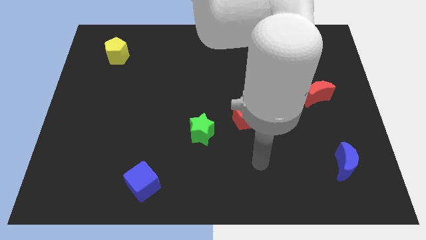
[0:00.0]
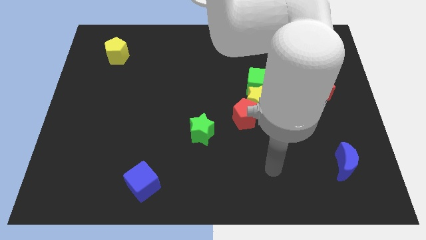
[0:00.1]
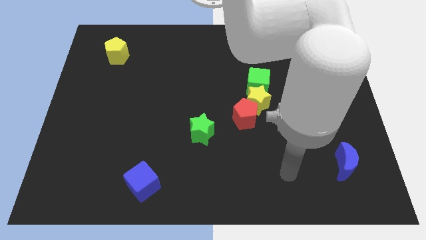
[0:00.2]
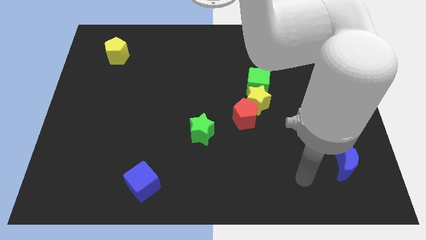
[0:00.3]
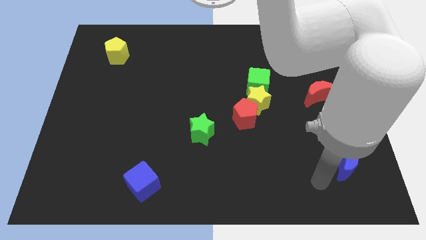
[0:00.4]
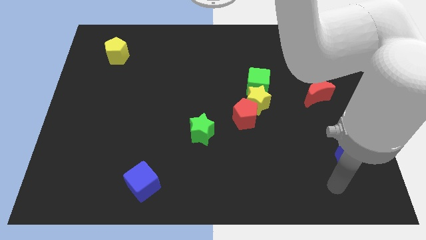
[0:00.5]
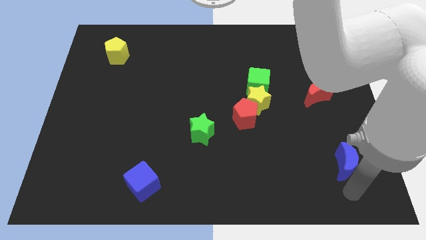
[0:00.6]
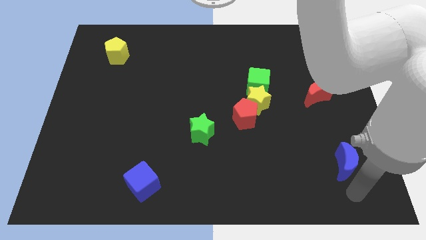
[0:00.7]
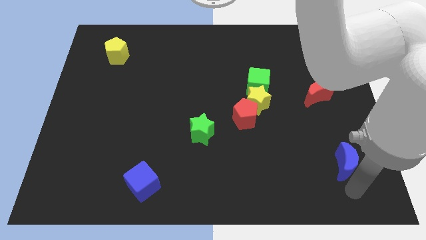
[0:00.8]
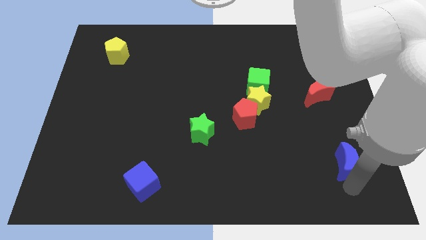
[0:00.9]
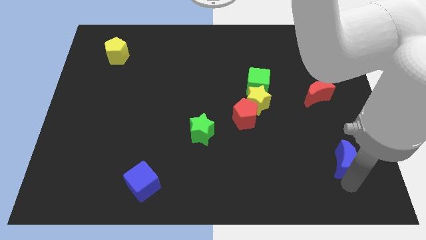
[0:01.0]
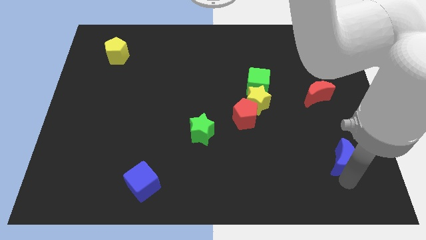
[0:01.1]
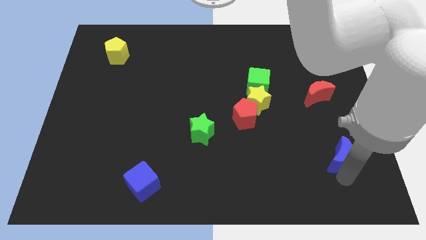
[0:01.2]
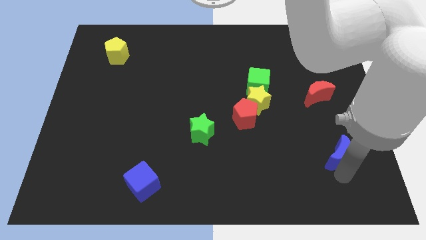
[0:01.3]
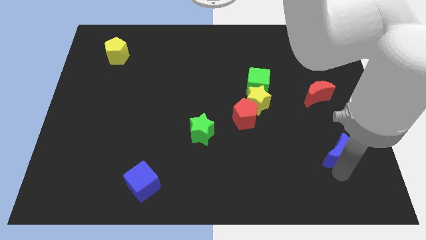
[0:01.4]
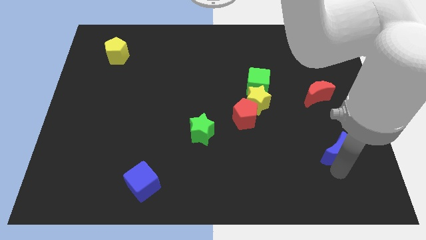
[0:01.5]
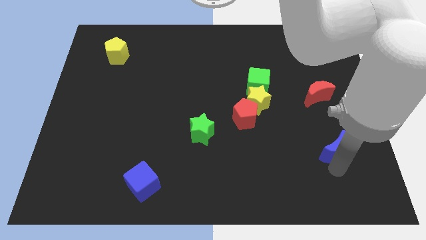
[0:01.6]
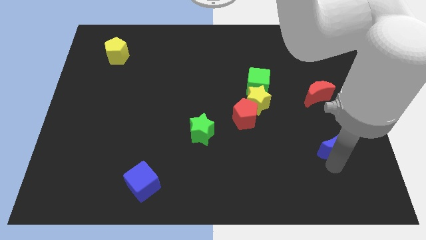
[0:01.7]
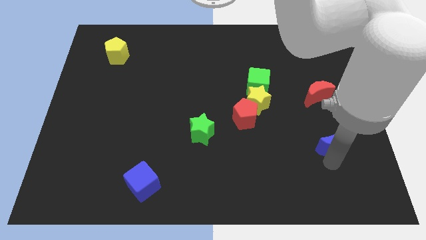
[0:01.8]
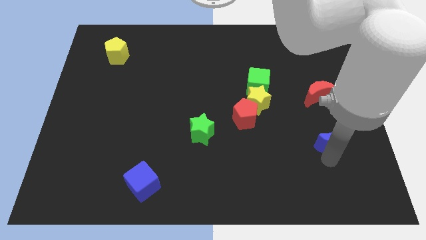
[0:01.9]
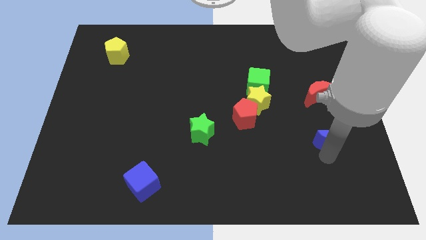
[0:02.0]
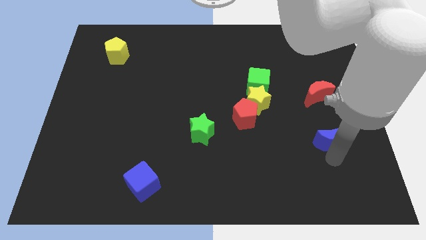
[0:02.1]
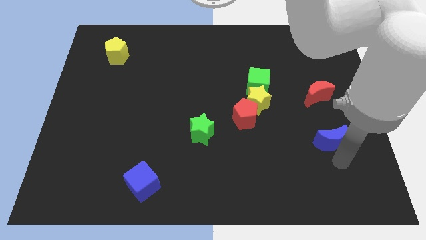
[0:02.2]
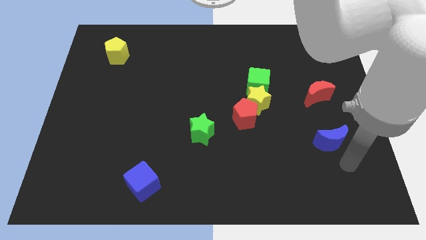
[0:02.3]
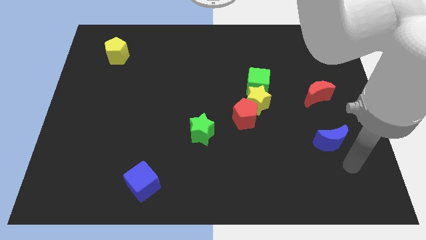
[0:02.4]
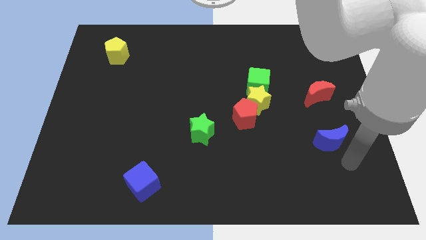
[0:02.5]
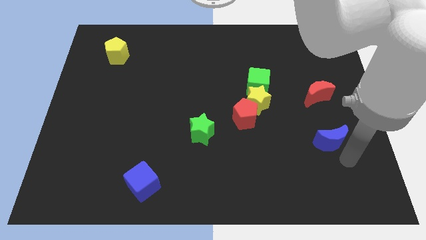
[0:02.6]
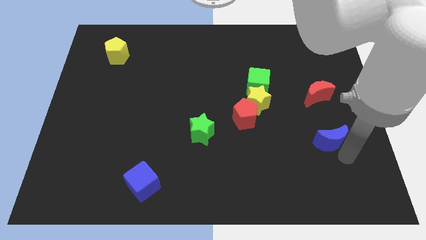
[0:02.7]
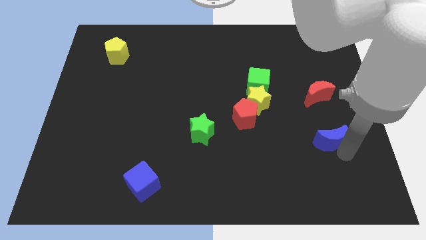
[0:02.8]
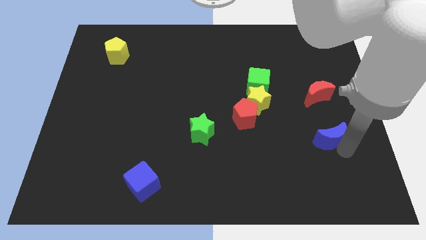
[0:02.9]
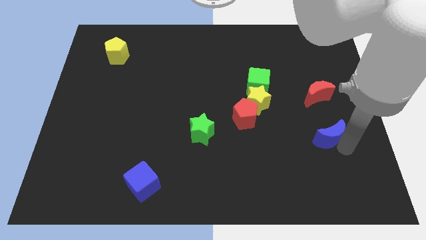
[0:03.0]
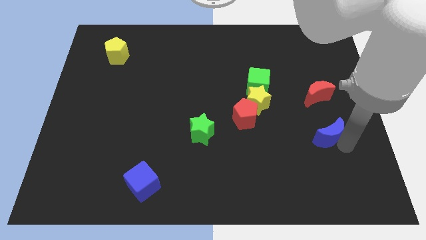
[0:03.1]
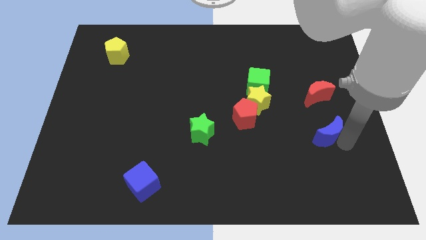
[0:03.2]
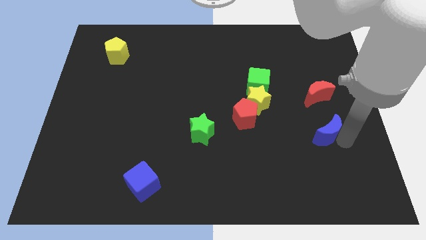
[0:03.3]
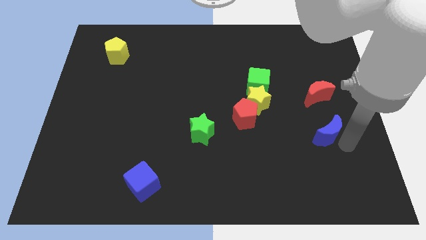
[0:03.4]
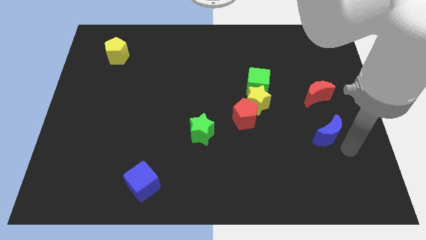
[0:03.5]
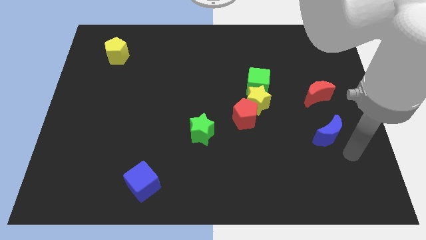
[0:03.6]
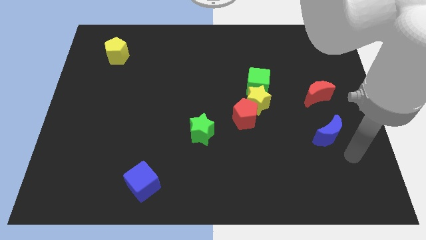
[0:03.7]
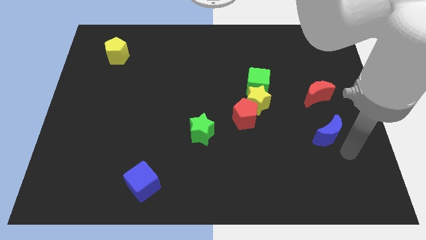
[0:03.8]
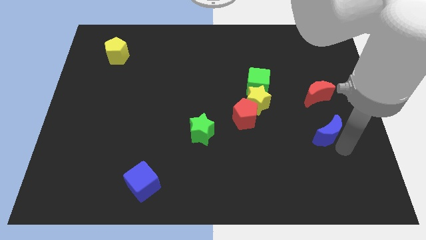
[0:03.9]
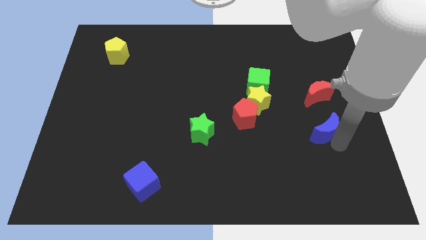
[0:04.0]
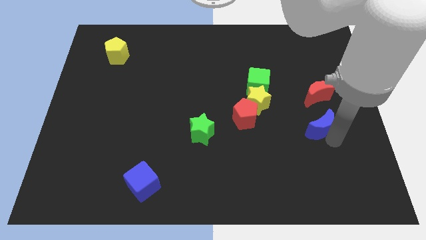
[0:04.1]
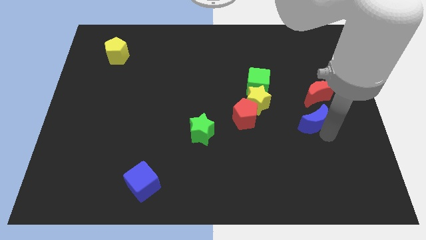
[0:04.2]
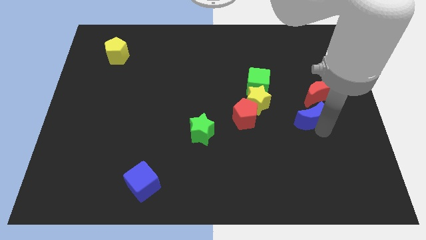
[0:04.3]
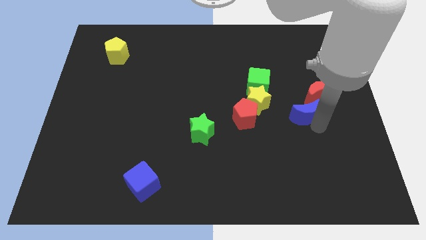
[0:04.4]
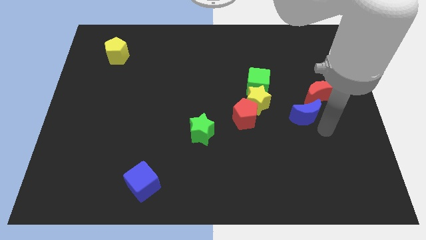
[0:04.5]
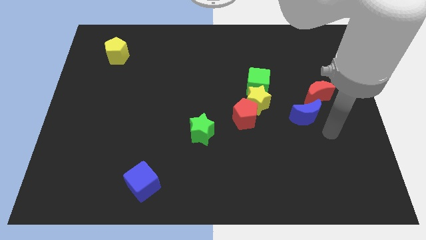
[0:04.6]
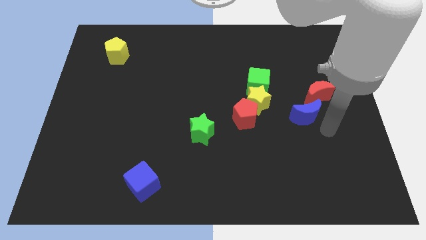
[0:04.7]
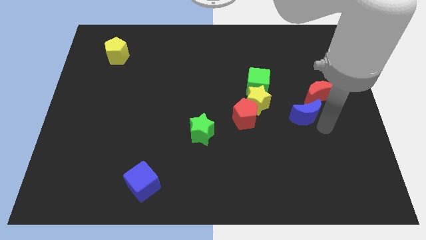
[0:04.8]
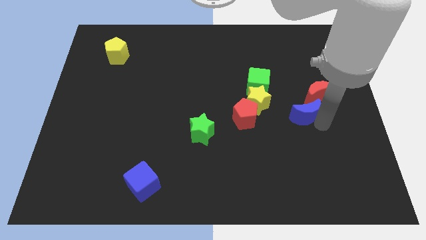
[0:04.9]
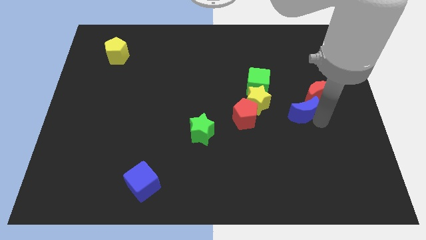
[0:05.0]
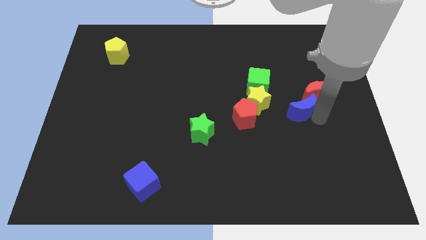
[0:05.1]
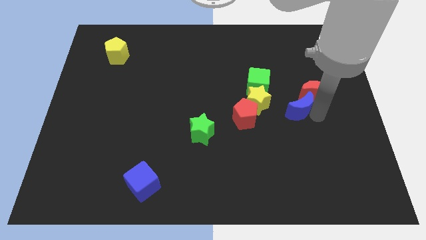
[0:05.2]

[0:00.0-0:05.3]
move the blue moon just left of the red moon

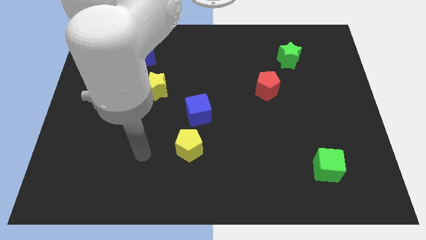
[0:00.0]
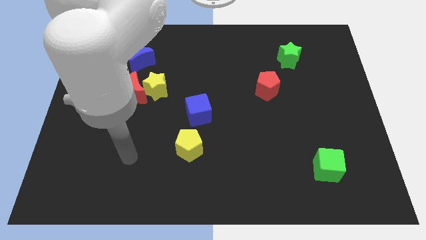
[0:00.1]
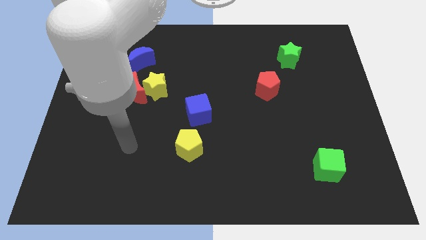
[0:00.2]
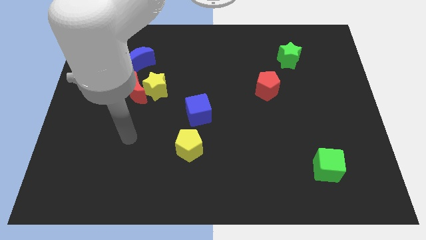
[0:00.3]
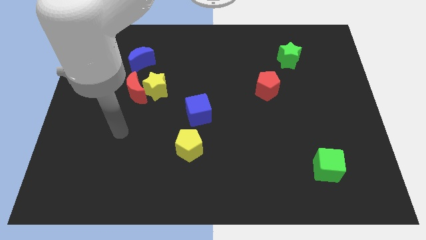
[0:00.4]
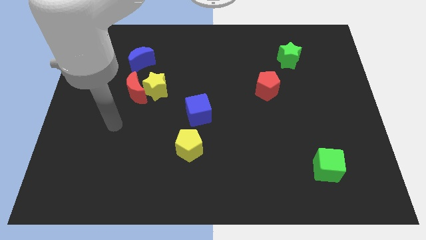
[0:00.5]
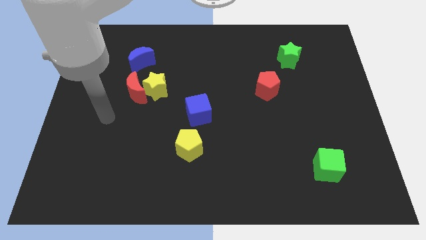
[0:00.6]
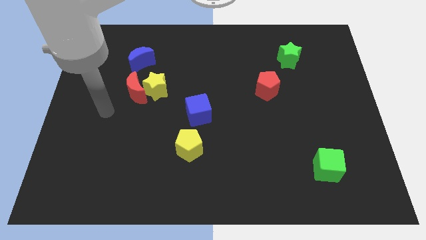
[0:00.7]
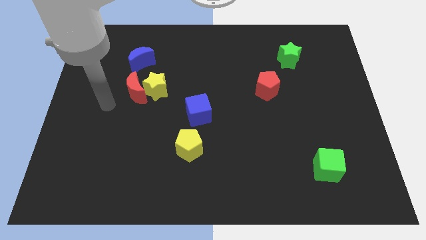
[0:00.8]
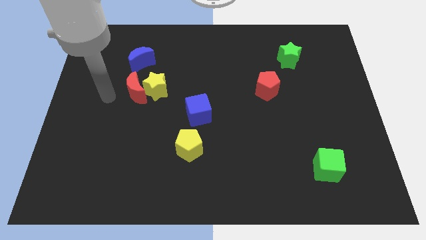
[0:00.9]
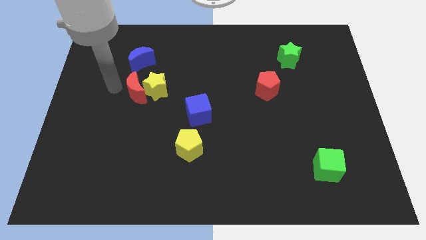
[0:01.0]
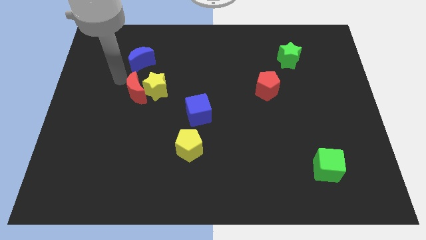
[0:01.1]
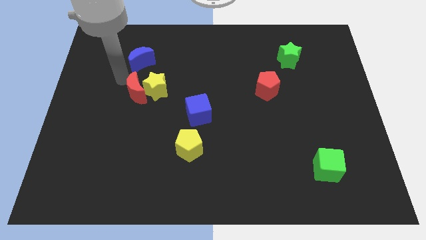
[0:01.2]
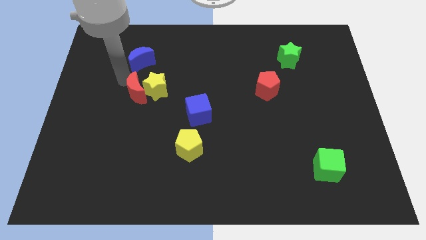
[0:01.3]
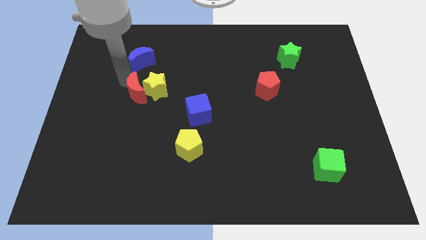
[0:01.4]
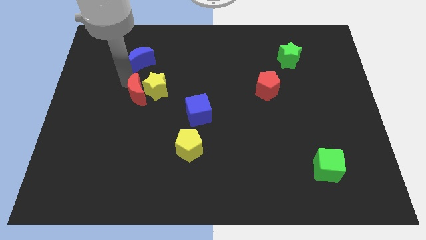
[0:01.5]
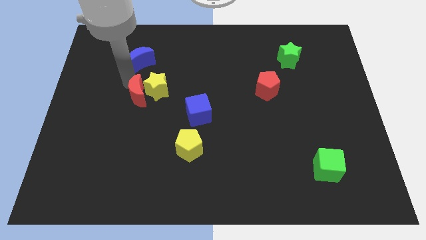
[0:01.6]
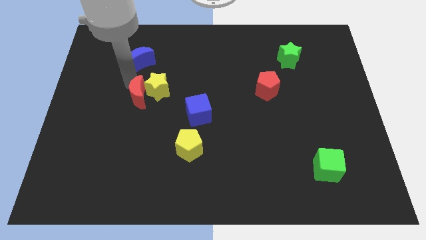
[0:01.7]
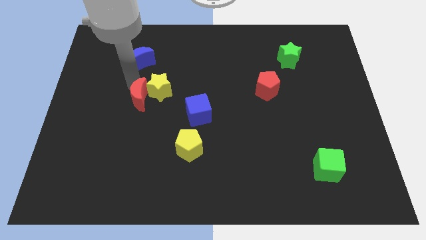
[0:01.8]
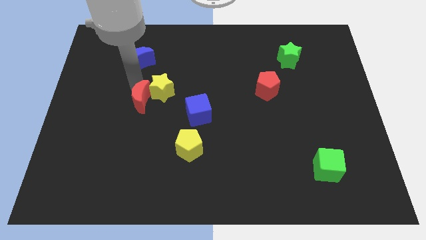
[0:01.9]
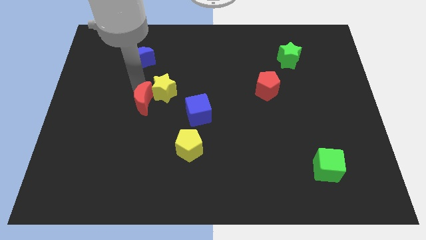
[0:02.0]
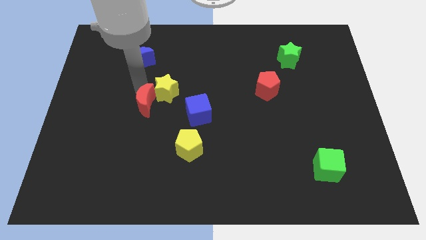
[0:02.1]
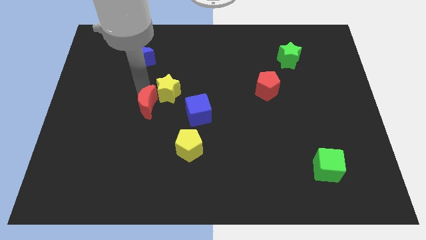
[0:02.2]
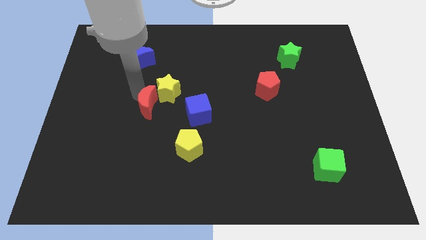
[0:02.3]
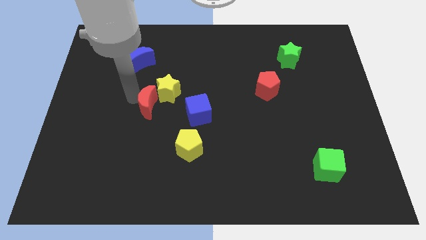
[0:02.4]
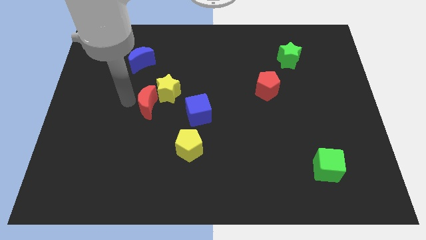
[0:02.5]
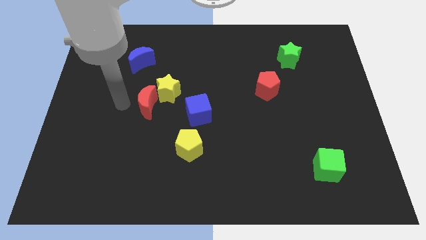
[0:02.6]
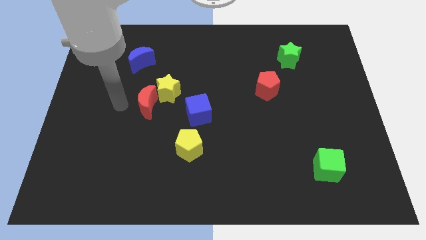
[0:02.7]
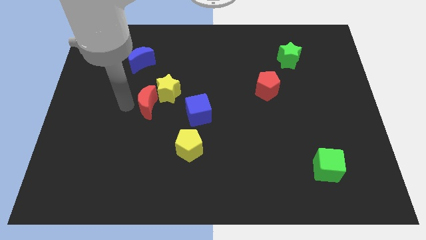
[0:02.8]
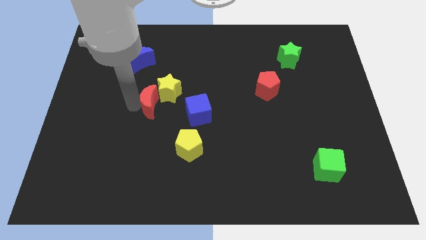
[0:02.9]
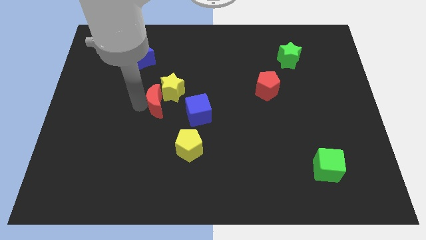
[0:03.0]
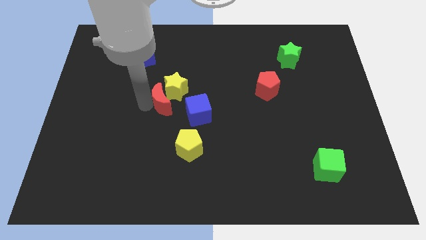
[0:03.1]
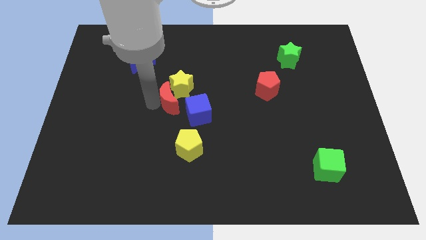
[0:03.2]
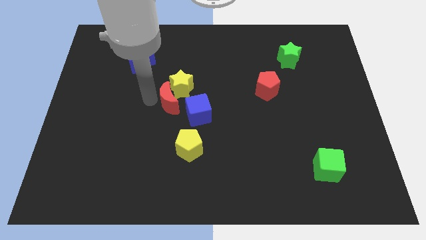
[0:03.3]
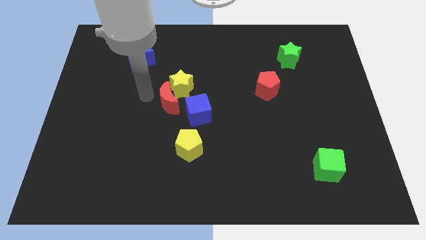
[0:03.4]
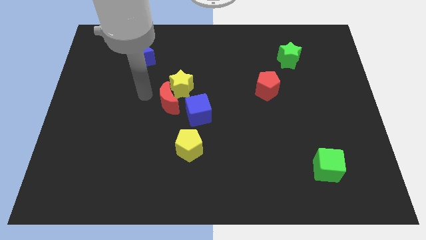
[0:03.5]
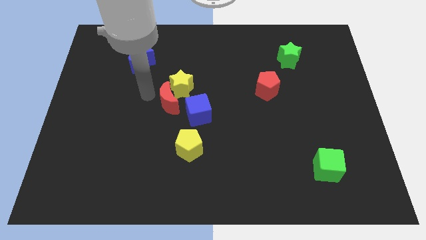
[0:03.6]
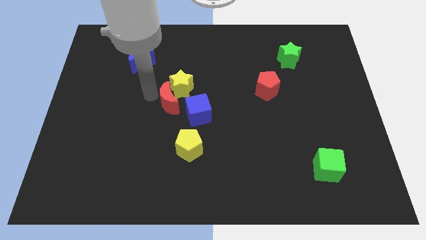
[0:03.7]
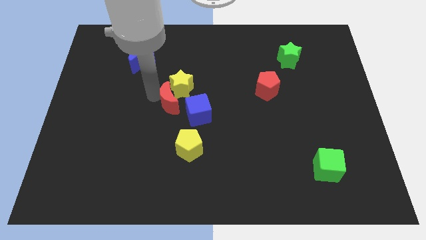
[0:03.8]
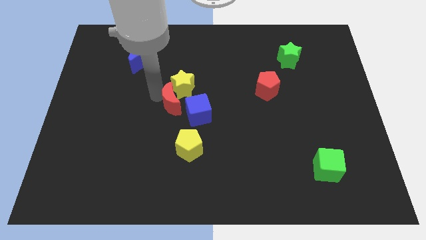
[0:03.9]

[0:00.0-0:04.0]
slide the red moon above the yellow pentagon
